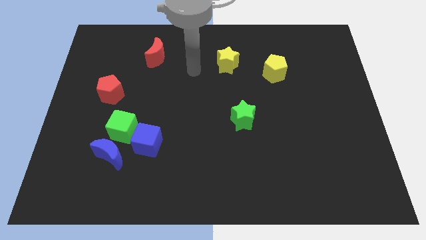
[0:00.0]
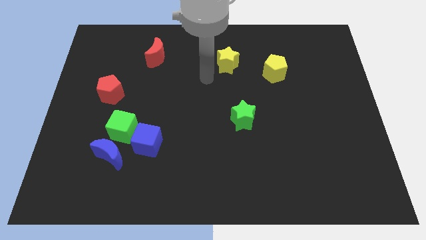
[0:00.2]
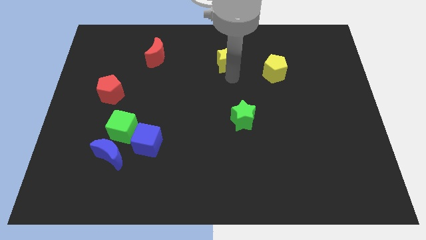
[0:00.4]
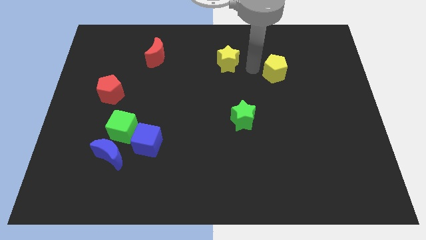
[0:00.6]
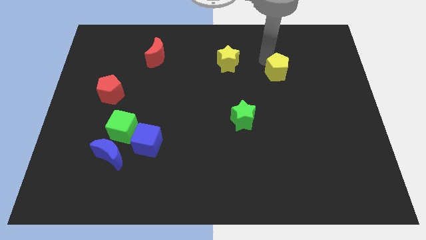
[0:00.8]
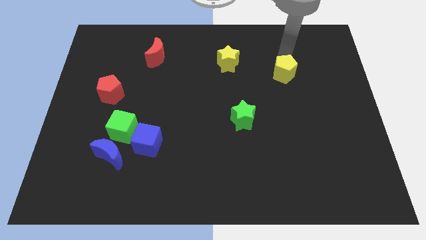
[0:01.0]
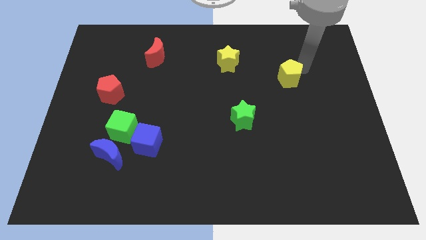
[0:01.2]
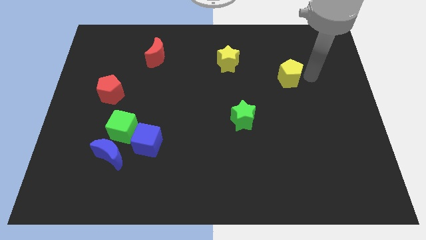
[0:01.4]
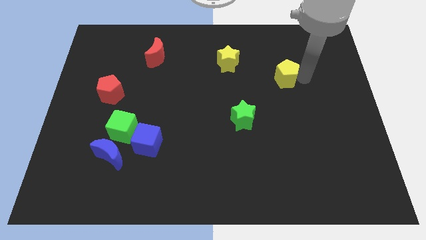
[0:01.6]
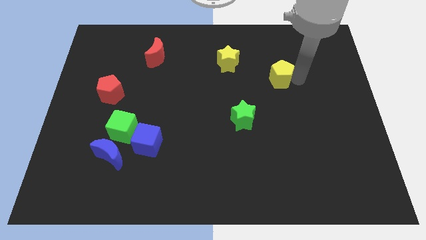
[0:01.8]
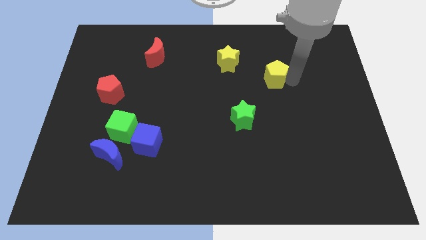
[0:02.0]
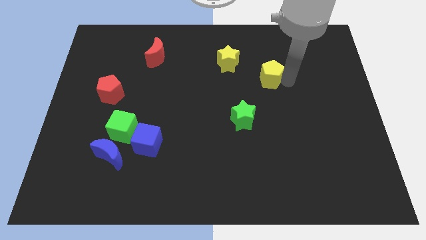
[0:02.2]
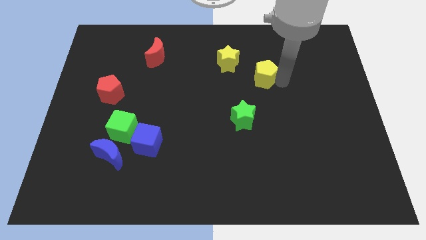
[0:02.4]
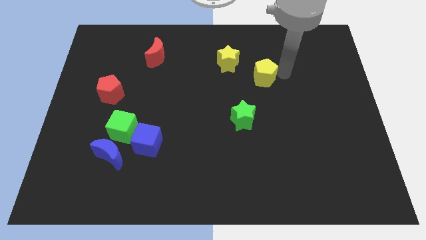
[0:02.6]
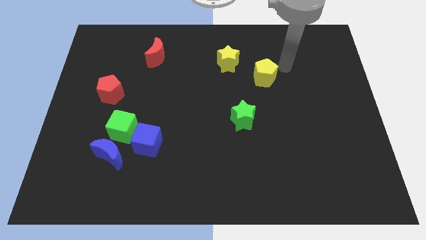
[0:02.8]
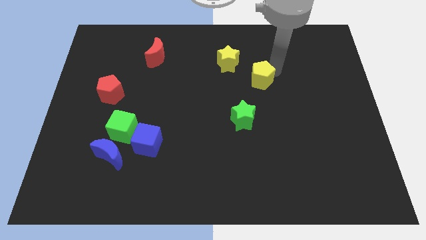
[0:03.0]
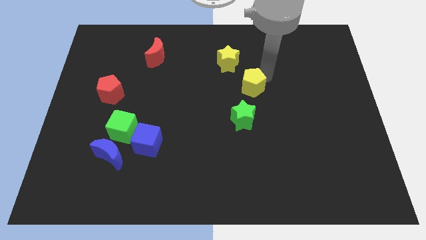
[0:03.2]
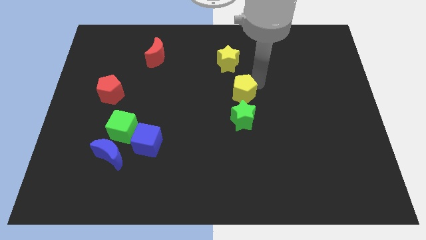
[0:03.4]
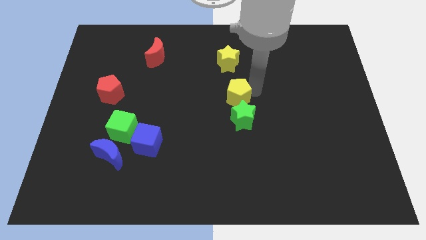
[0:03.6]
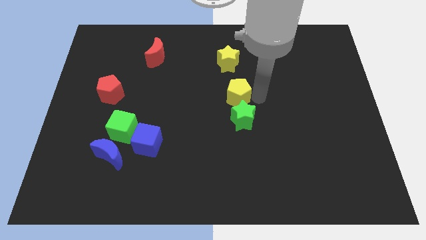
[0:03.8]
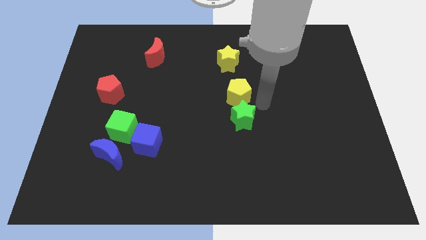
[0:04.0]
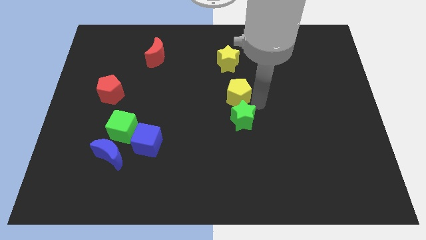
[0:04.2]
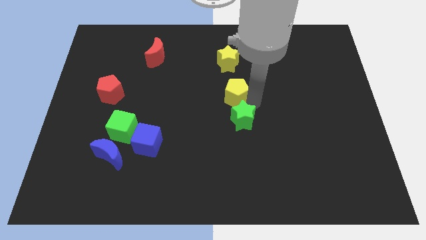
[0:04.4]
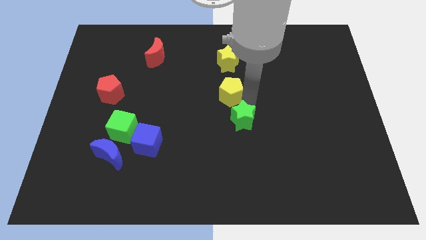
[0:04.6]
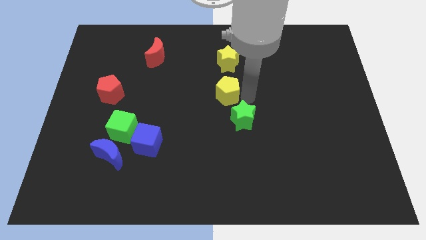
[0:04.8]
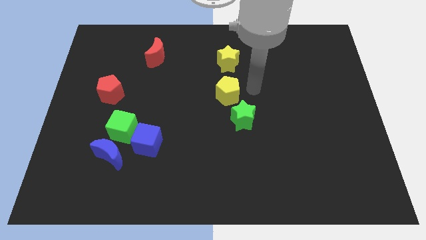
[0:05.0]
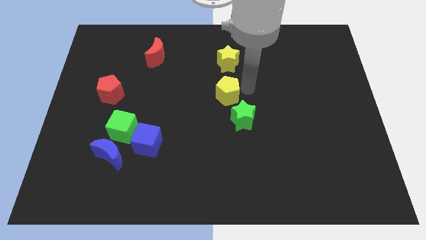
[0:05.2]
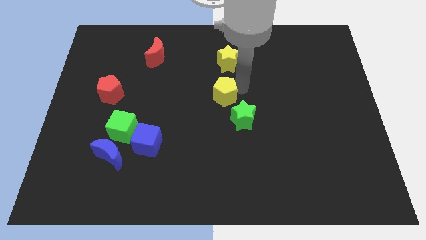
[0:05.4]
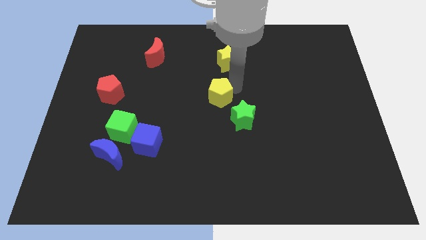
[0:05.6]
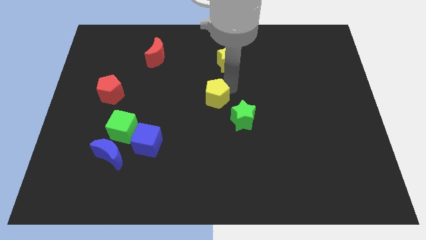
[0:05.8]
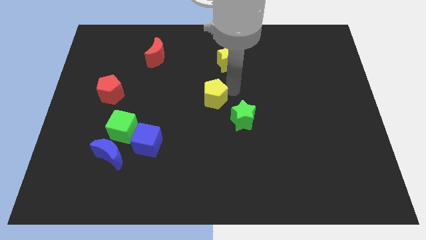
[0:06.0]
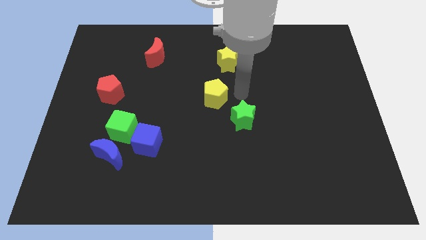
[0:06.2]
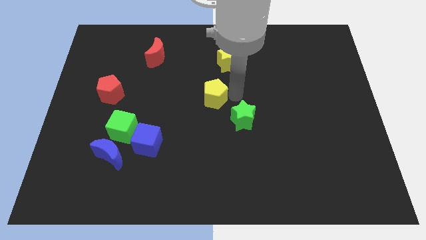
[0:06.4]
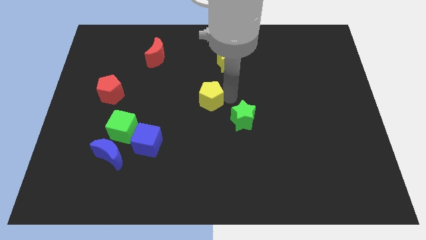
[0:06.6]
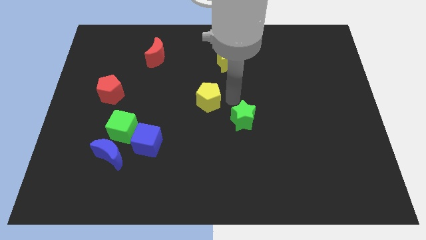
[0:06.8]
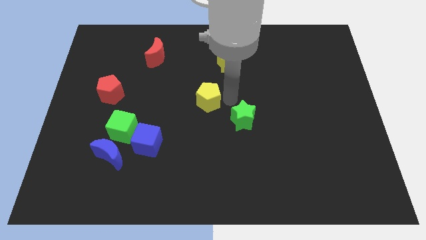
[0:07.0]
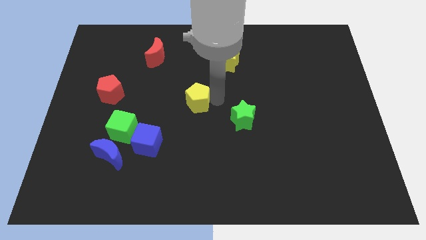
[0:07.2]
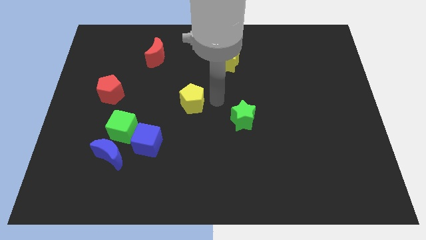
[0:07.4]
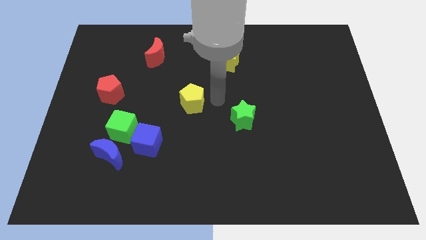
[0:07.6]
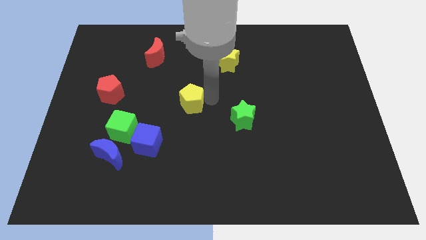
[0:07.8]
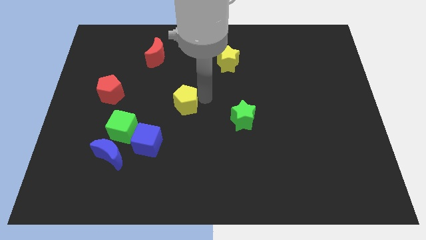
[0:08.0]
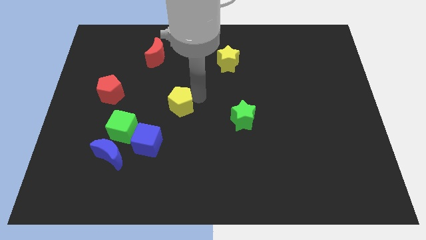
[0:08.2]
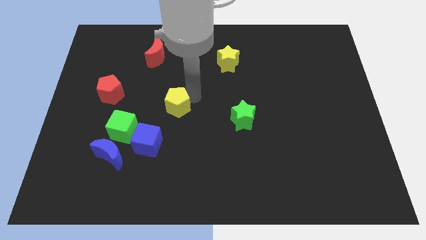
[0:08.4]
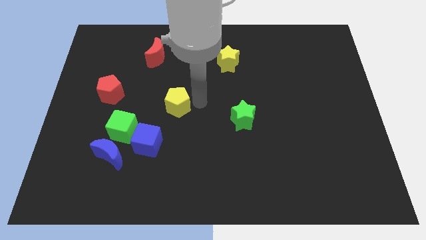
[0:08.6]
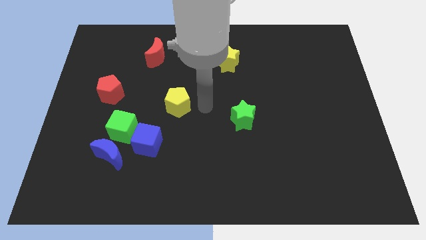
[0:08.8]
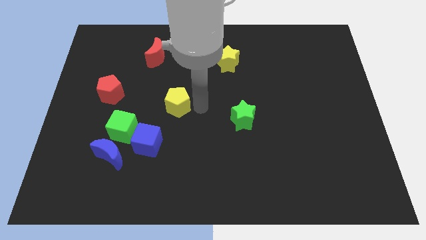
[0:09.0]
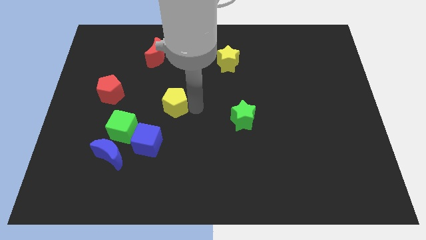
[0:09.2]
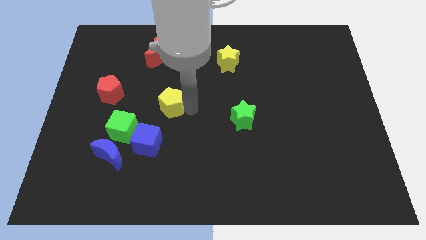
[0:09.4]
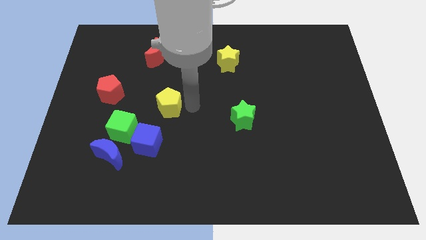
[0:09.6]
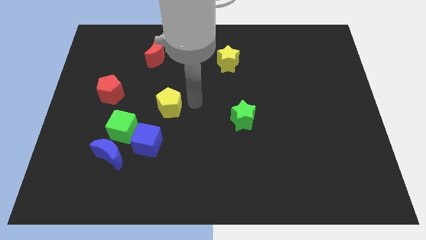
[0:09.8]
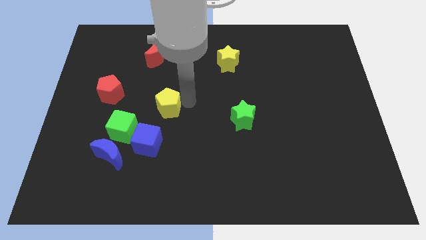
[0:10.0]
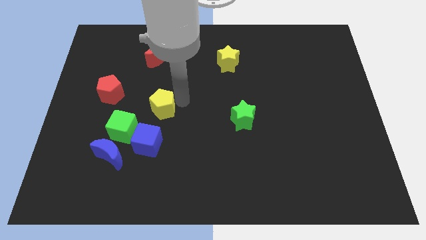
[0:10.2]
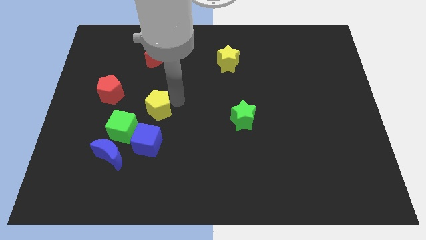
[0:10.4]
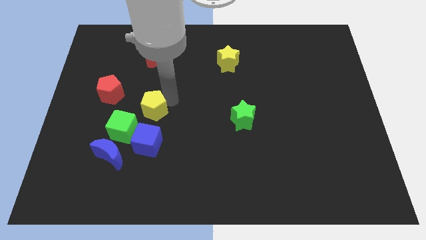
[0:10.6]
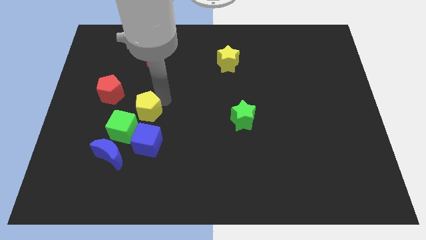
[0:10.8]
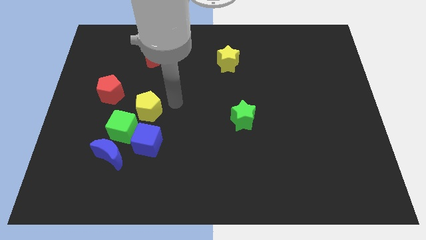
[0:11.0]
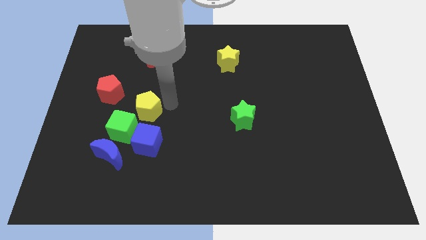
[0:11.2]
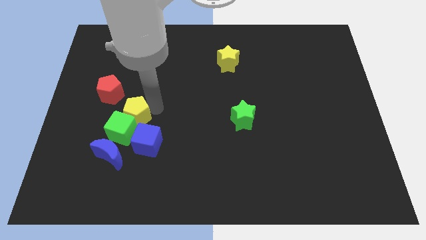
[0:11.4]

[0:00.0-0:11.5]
slide the yellow pentagon to the top side of the blue moon

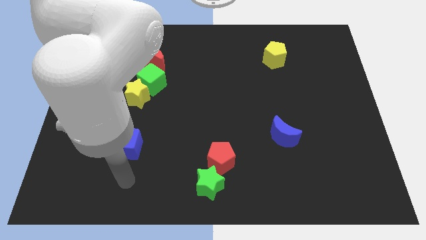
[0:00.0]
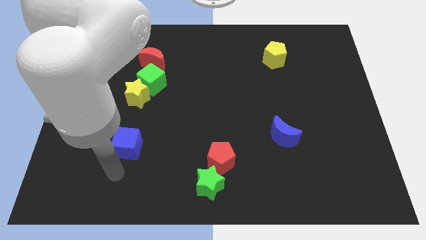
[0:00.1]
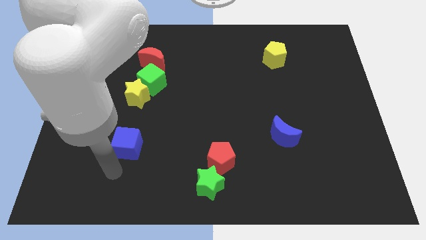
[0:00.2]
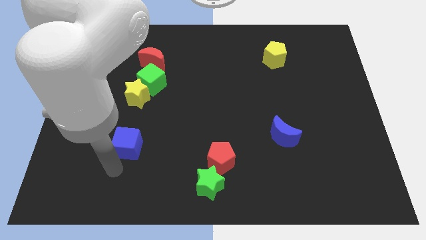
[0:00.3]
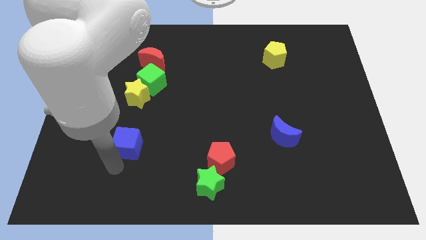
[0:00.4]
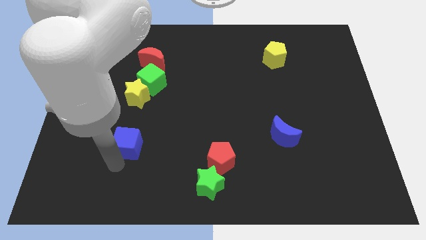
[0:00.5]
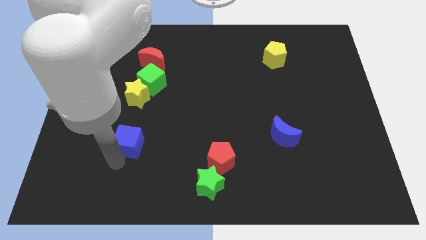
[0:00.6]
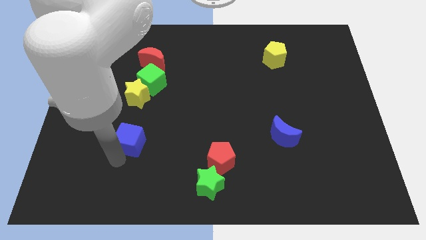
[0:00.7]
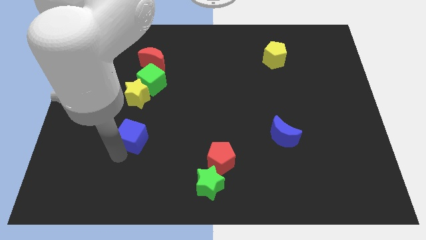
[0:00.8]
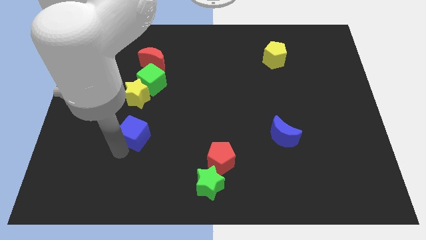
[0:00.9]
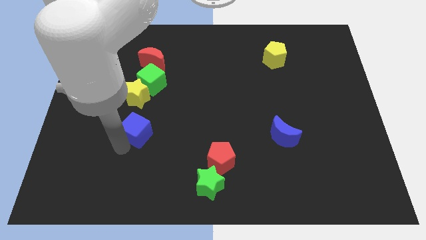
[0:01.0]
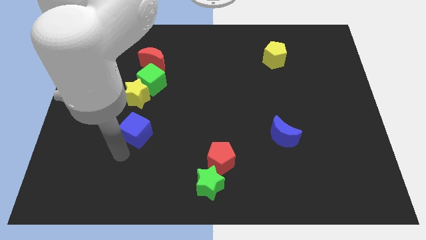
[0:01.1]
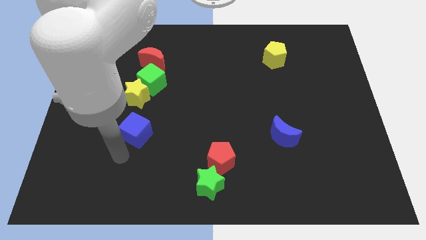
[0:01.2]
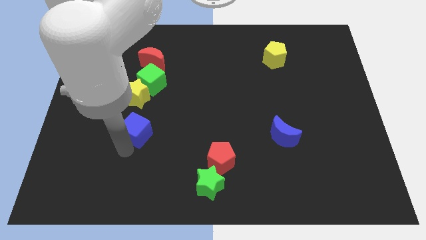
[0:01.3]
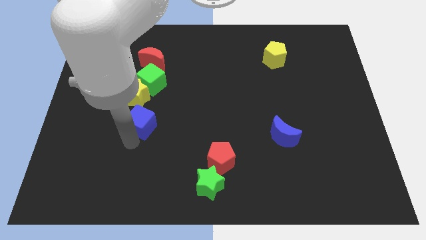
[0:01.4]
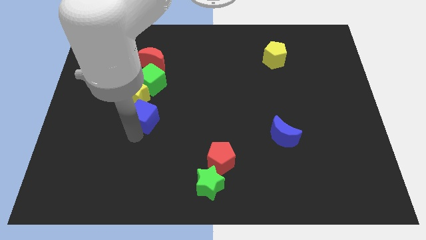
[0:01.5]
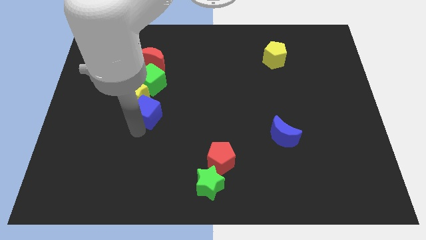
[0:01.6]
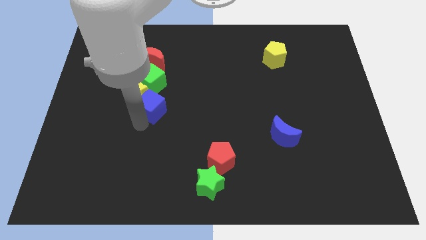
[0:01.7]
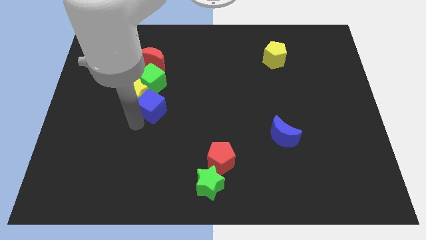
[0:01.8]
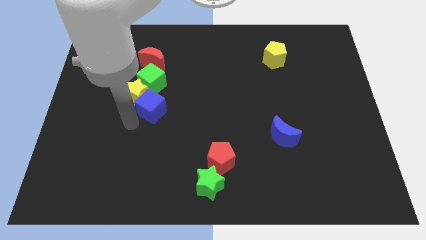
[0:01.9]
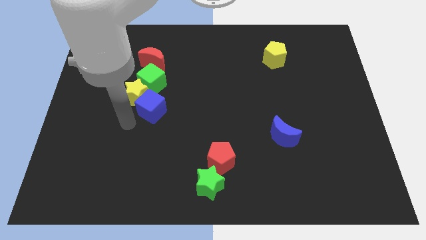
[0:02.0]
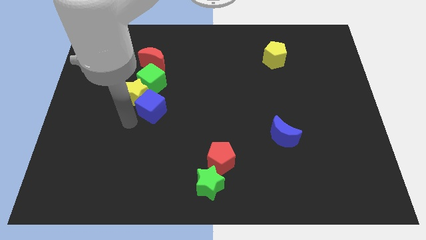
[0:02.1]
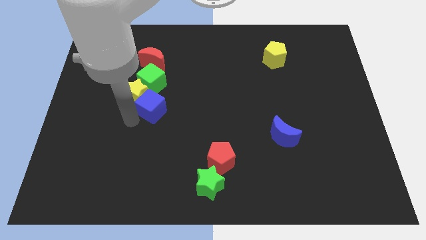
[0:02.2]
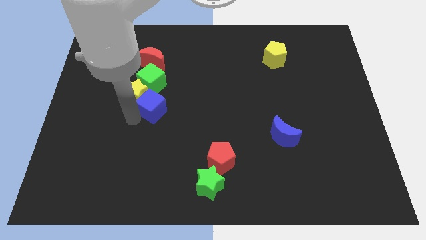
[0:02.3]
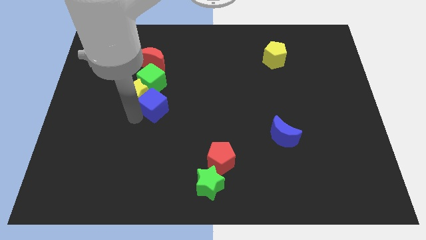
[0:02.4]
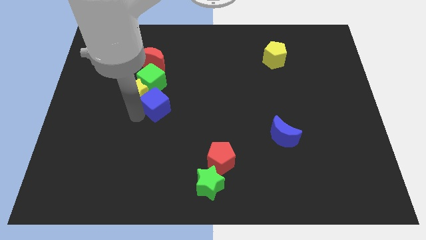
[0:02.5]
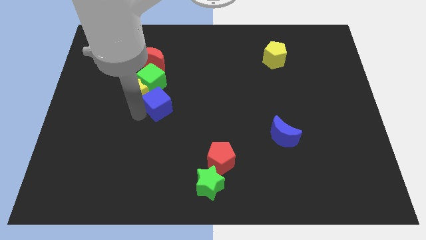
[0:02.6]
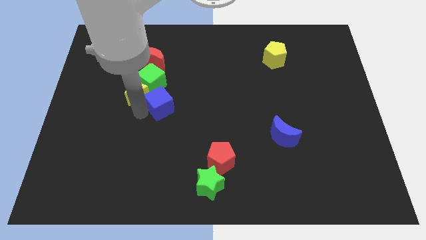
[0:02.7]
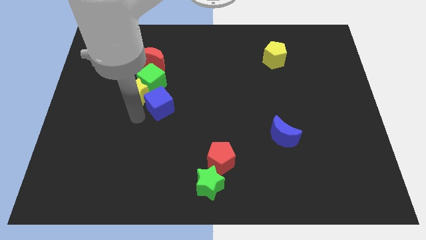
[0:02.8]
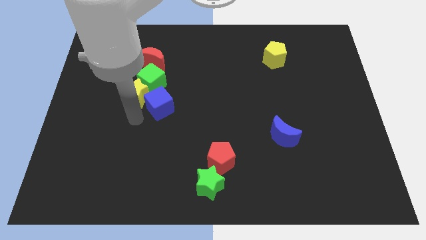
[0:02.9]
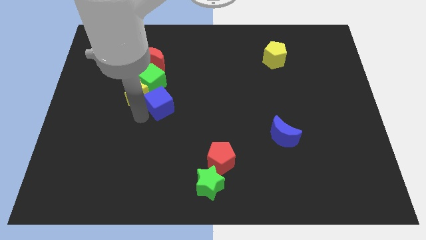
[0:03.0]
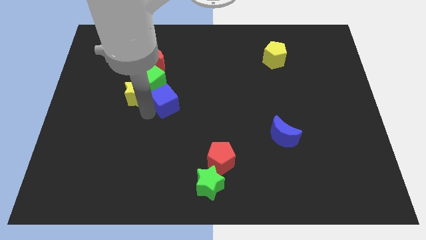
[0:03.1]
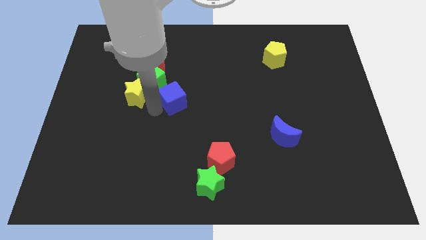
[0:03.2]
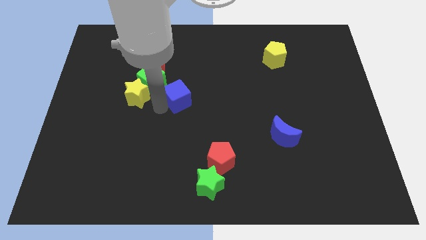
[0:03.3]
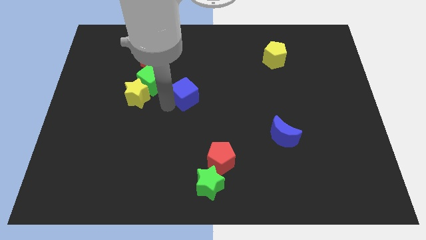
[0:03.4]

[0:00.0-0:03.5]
slide the blue cube right of the green cube
